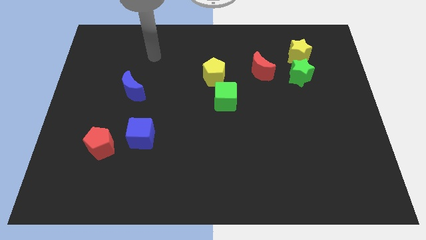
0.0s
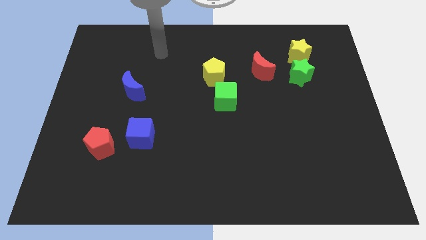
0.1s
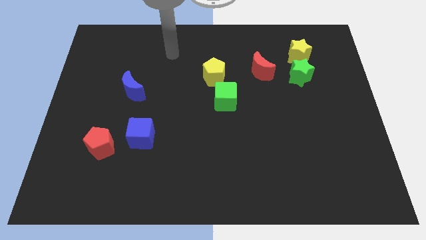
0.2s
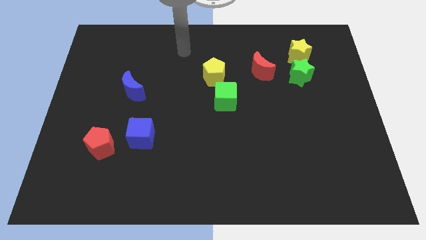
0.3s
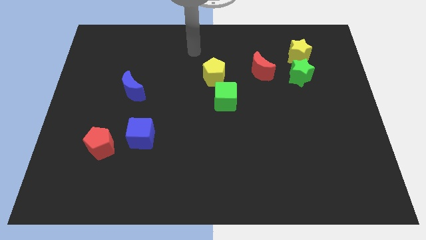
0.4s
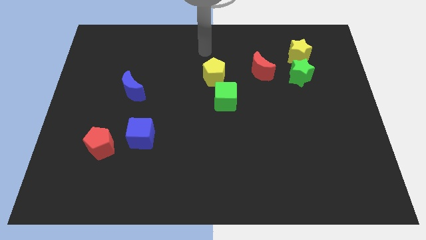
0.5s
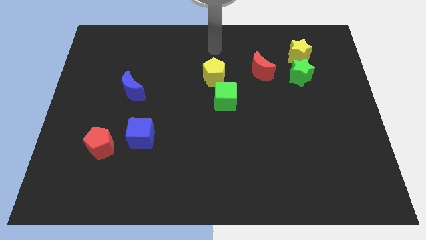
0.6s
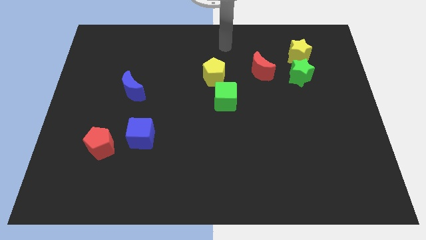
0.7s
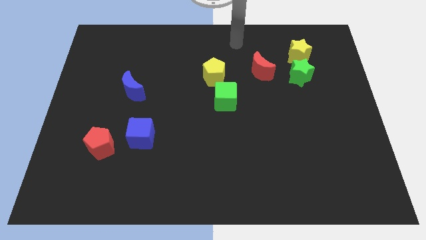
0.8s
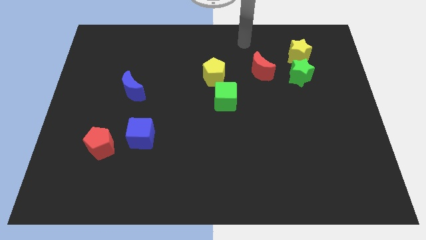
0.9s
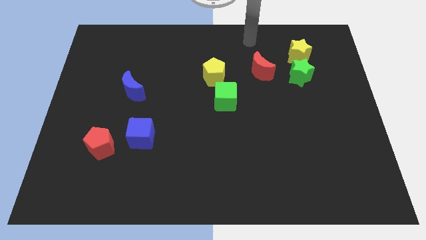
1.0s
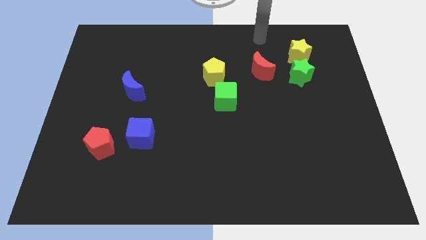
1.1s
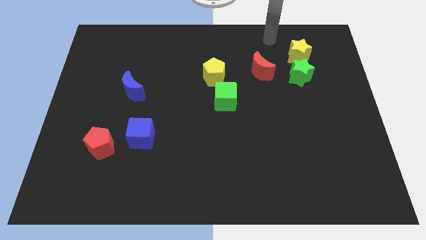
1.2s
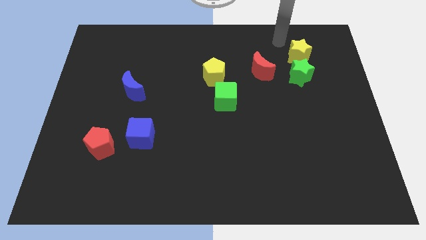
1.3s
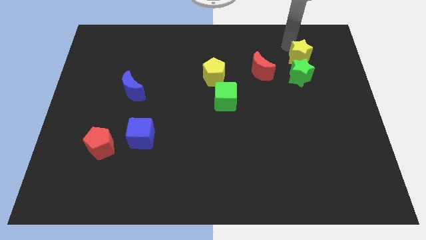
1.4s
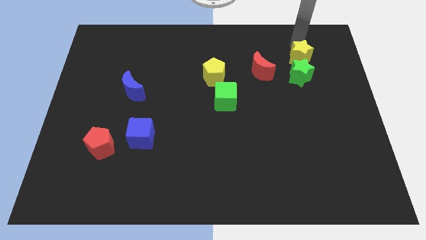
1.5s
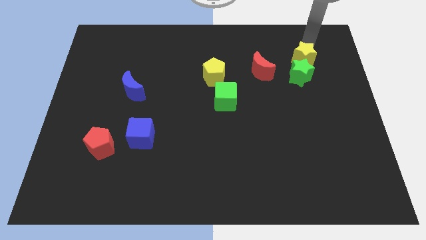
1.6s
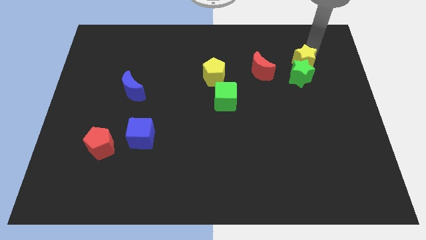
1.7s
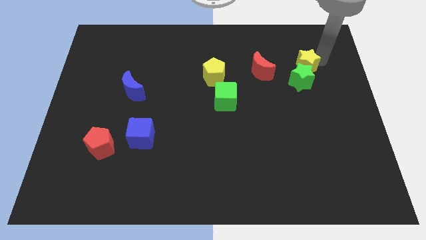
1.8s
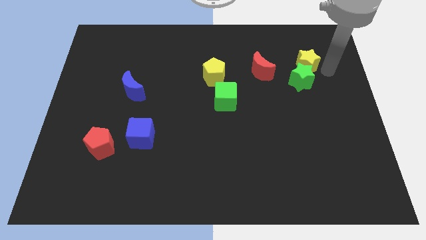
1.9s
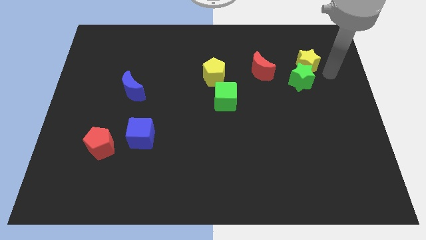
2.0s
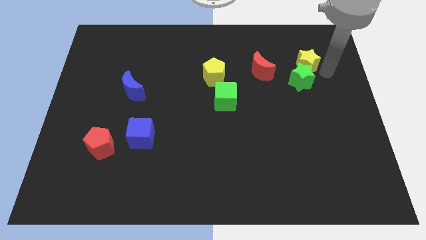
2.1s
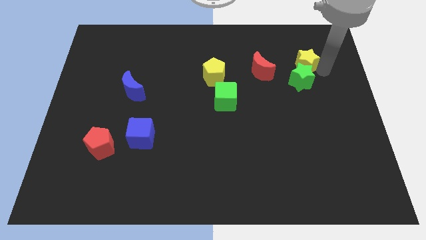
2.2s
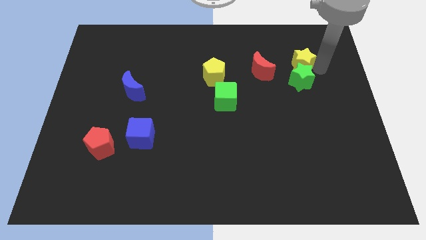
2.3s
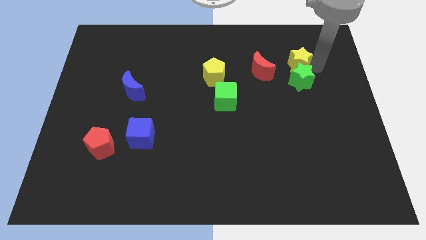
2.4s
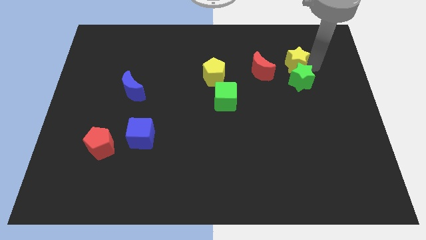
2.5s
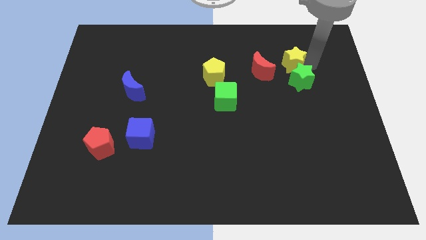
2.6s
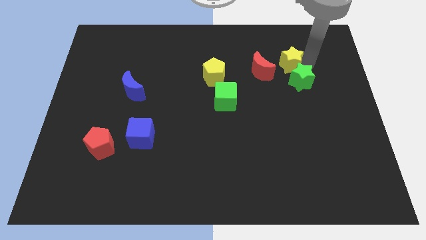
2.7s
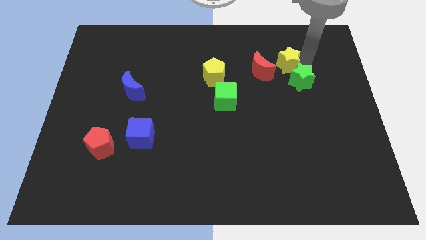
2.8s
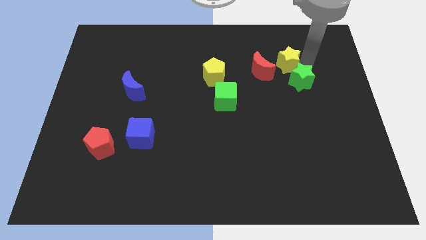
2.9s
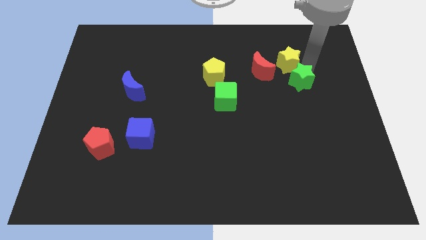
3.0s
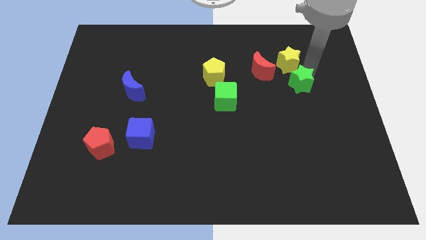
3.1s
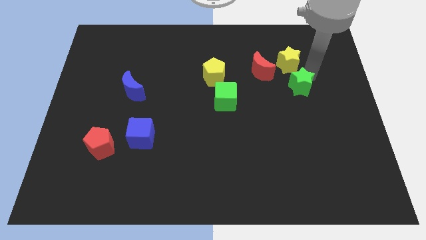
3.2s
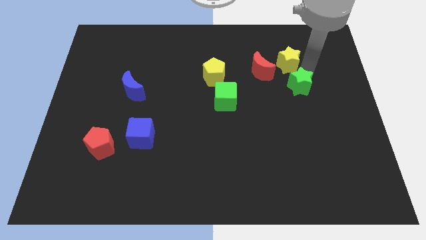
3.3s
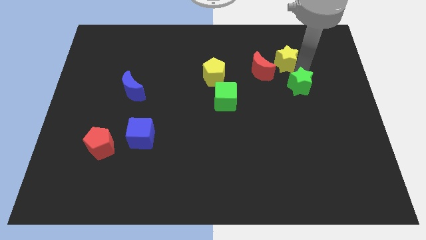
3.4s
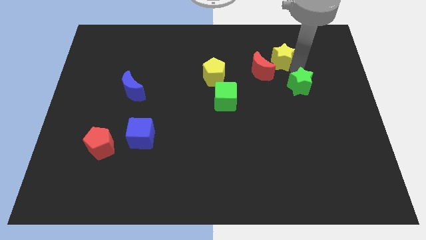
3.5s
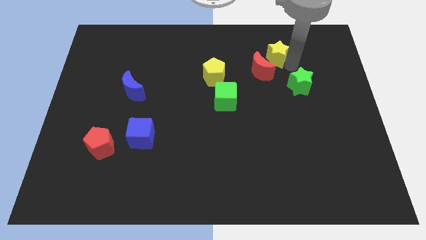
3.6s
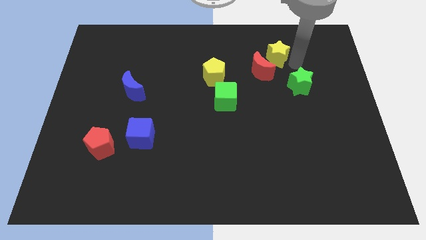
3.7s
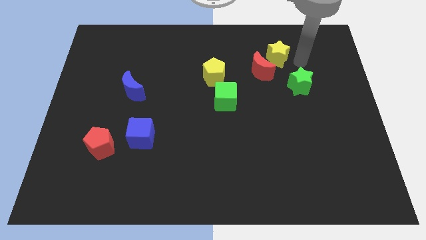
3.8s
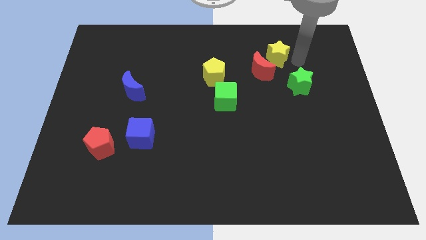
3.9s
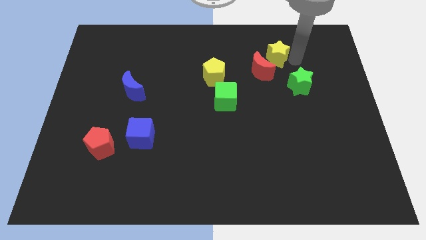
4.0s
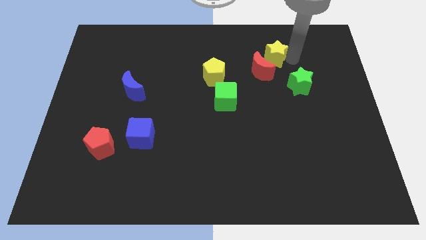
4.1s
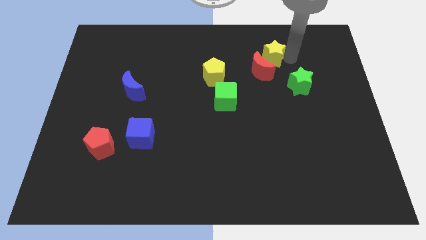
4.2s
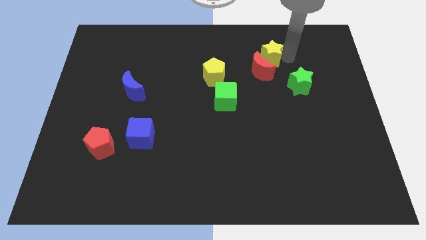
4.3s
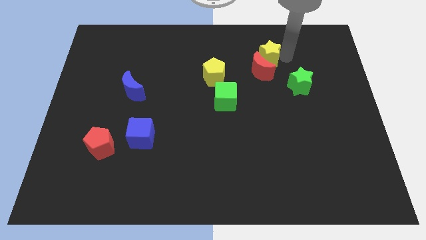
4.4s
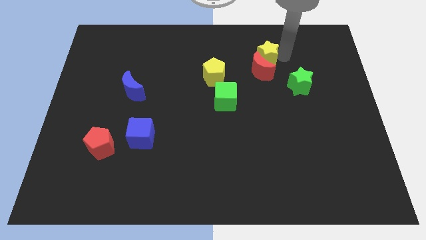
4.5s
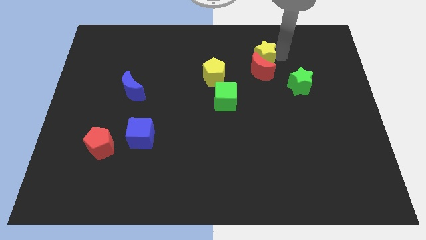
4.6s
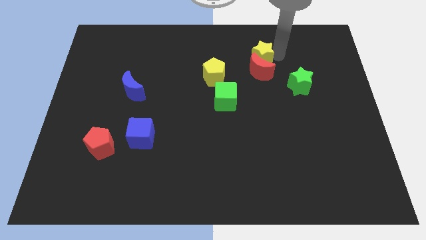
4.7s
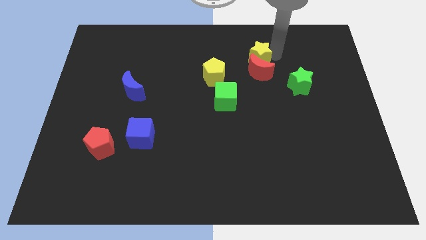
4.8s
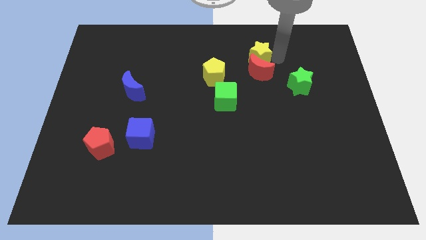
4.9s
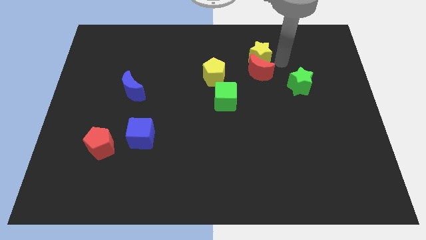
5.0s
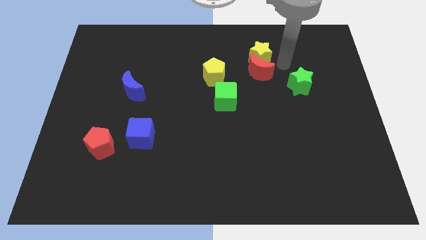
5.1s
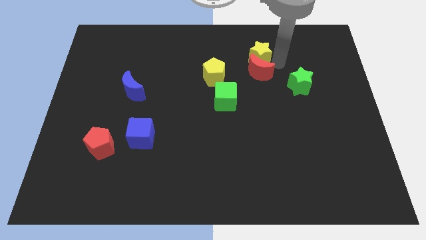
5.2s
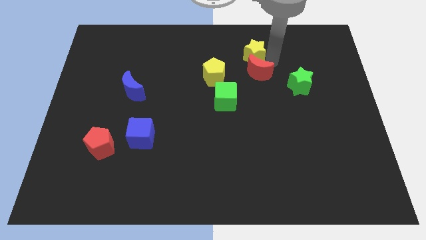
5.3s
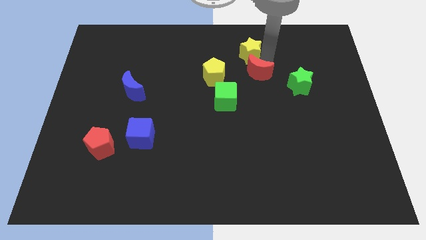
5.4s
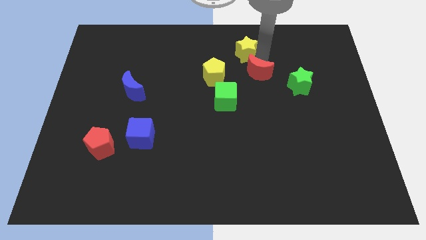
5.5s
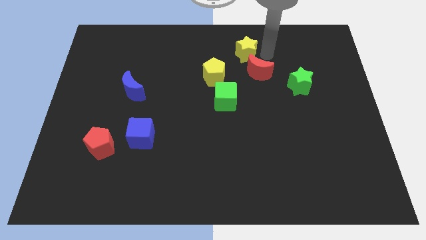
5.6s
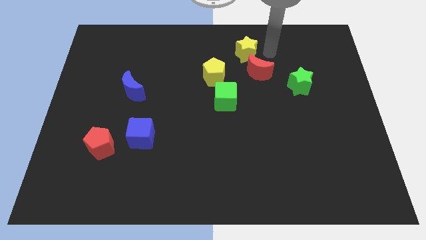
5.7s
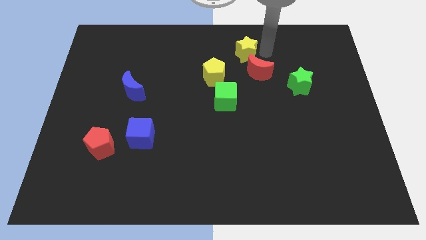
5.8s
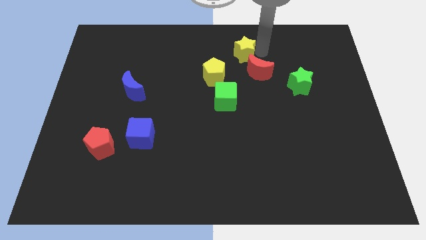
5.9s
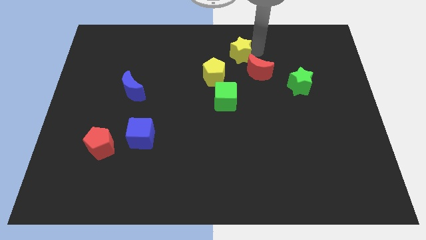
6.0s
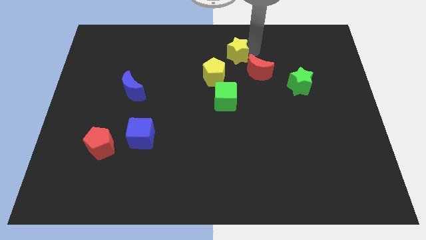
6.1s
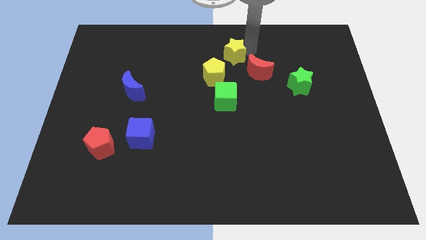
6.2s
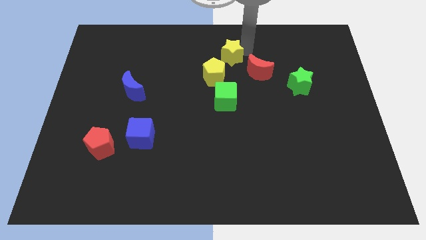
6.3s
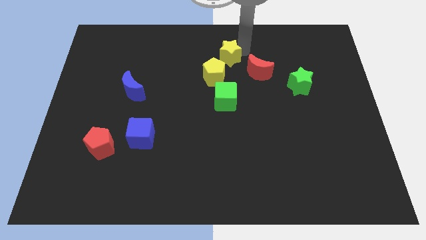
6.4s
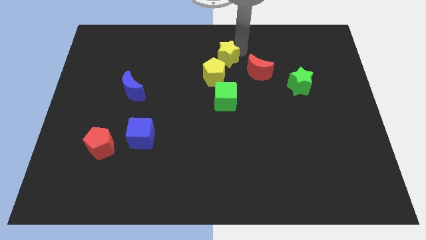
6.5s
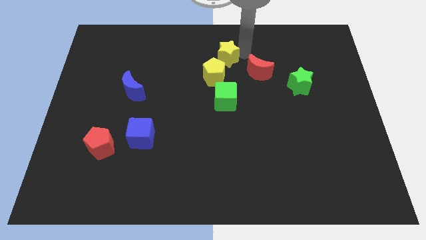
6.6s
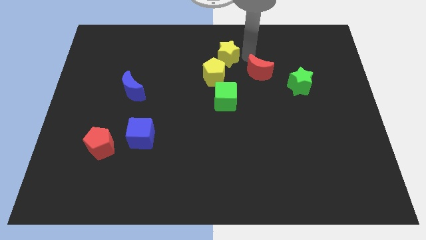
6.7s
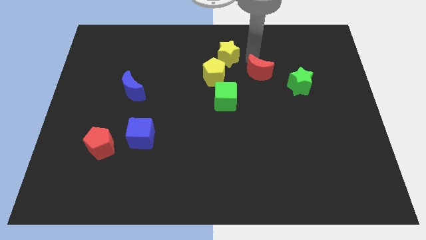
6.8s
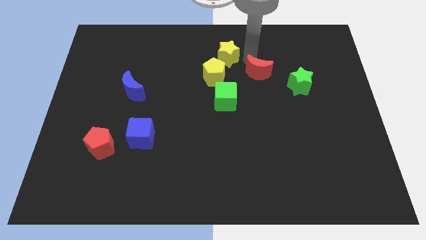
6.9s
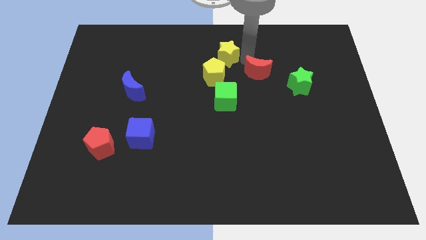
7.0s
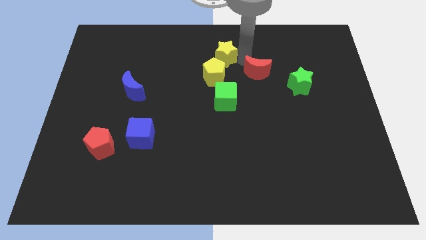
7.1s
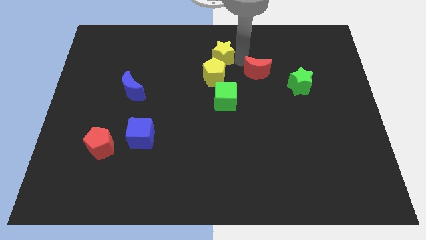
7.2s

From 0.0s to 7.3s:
move the yellow star to the left

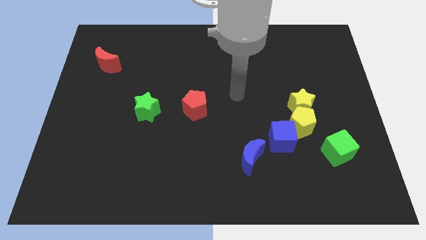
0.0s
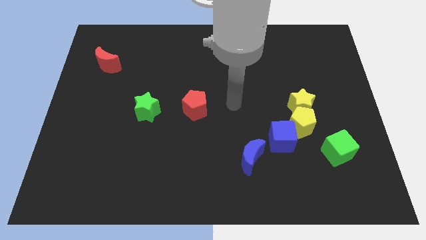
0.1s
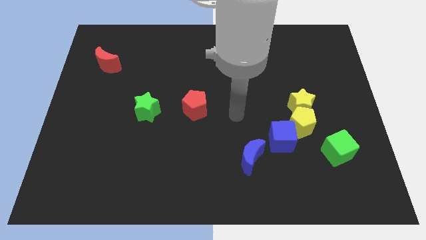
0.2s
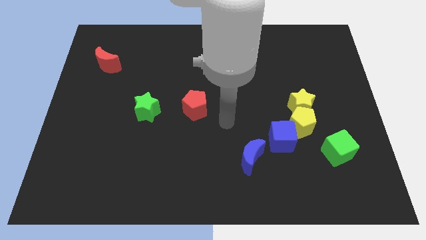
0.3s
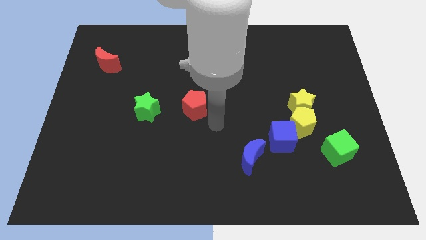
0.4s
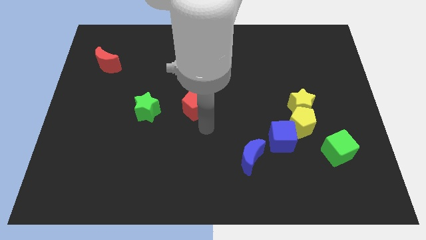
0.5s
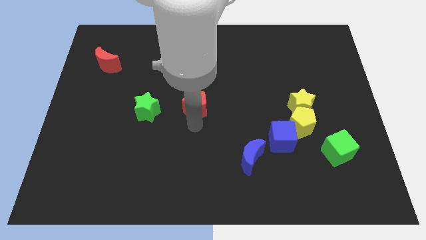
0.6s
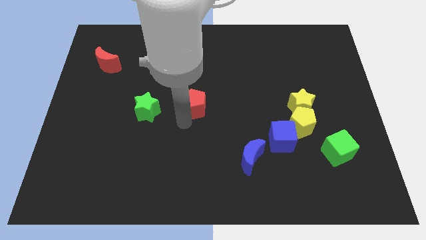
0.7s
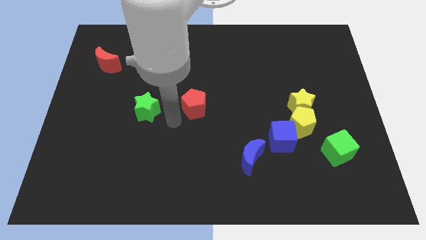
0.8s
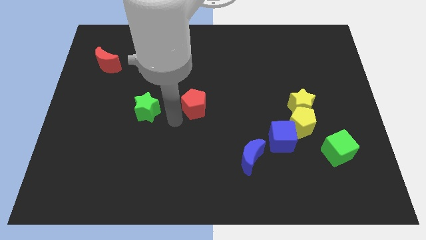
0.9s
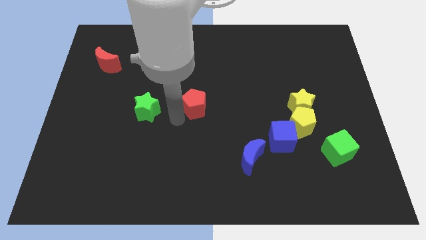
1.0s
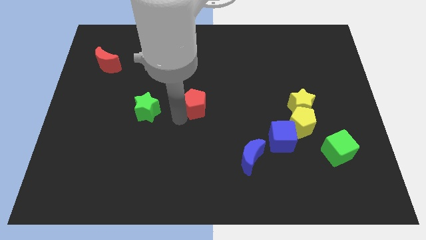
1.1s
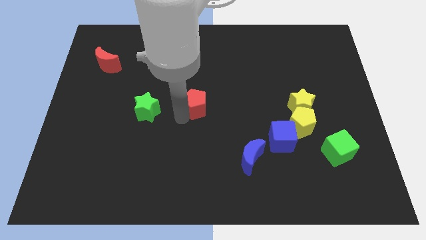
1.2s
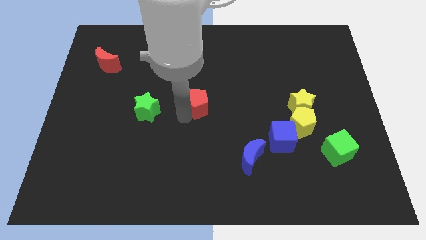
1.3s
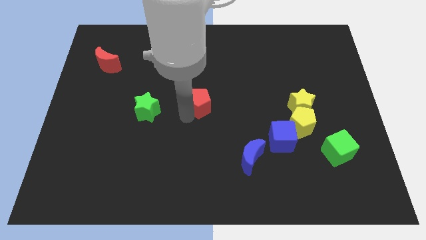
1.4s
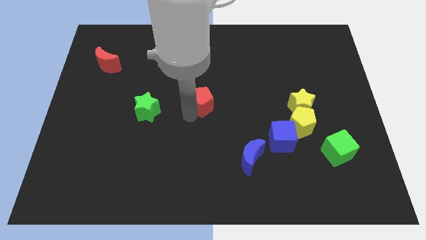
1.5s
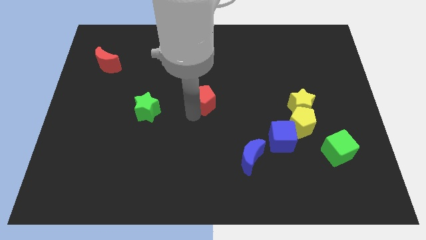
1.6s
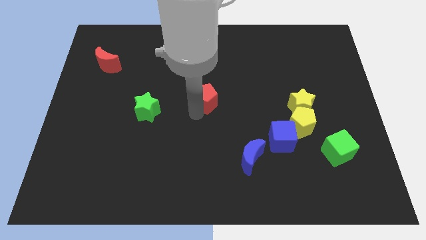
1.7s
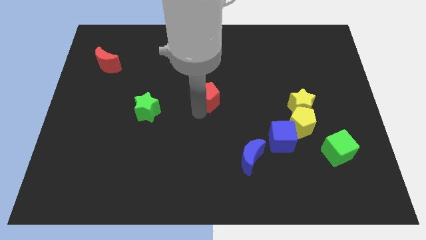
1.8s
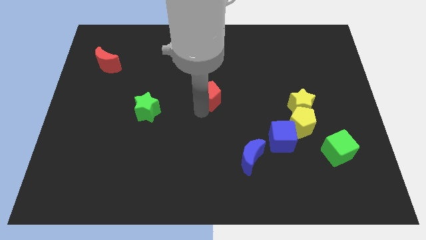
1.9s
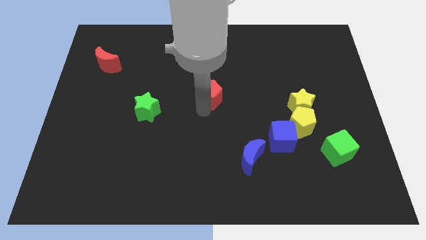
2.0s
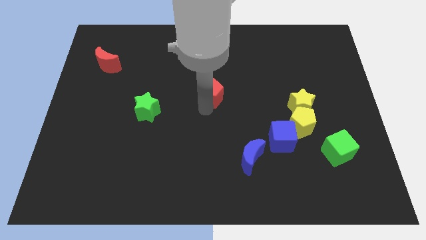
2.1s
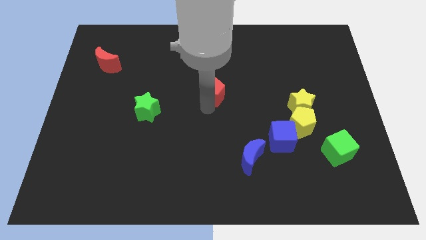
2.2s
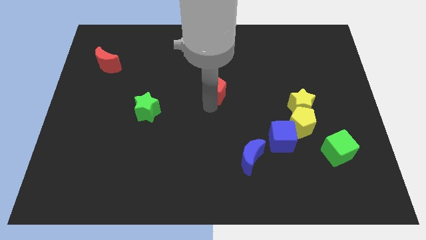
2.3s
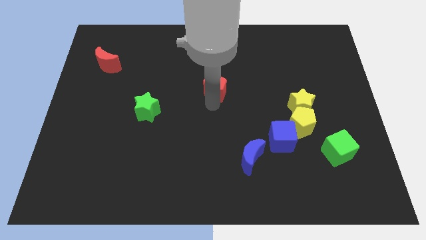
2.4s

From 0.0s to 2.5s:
push the red pentagon up and to the right diagonally a bit
